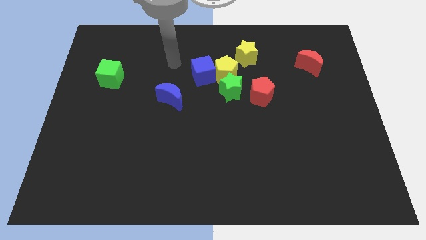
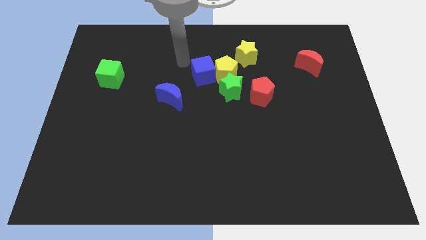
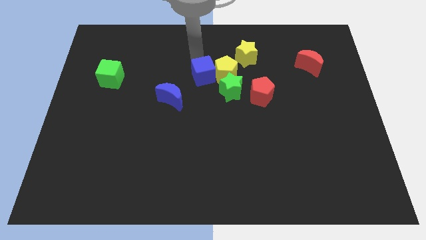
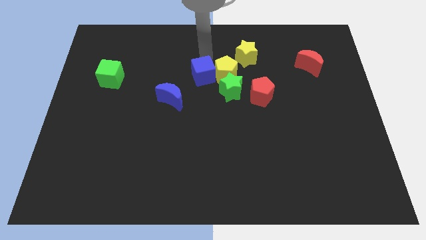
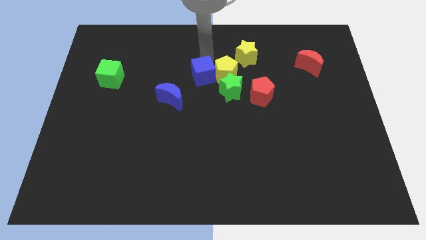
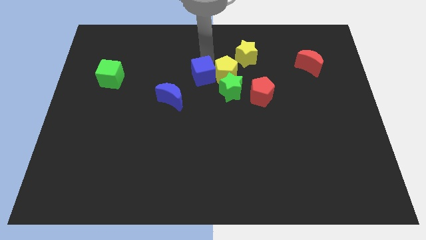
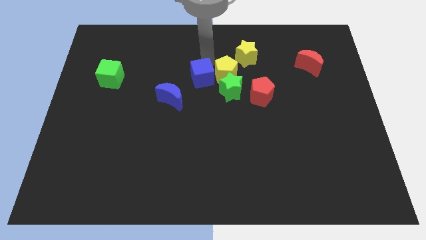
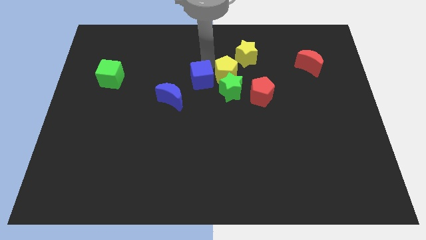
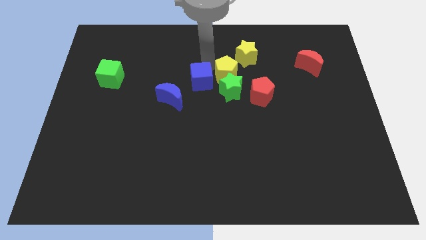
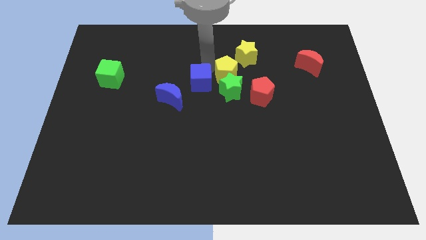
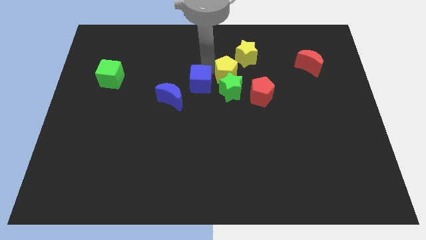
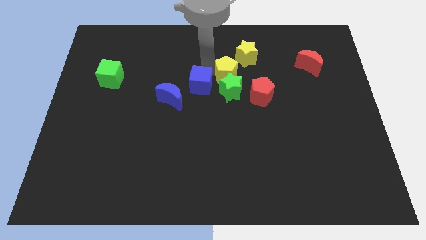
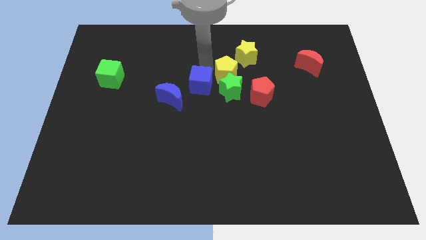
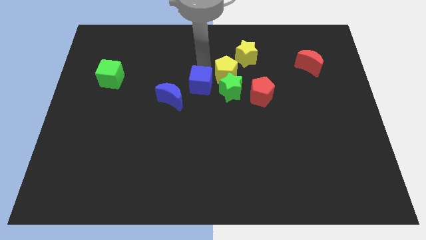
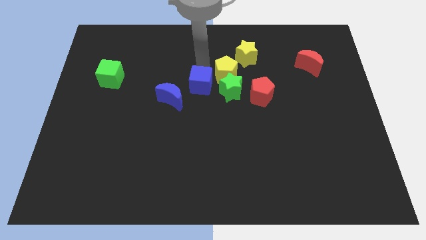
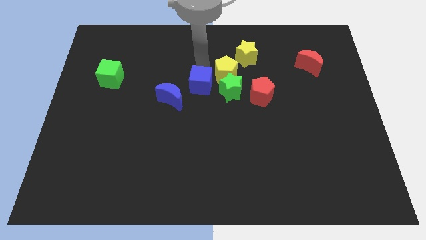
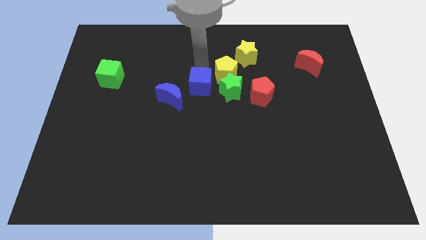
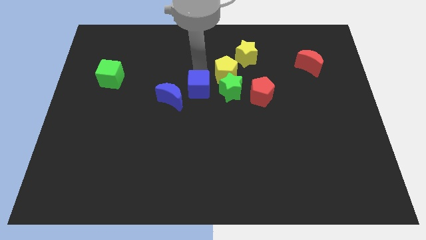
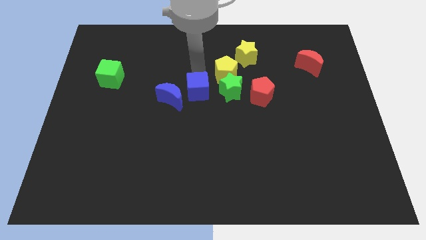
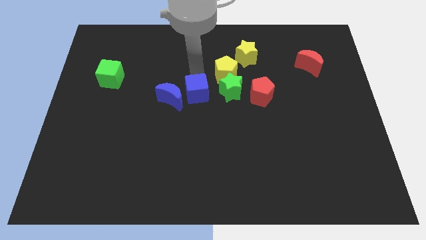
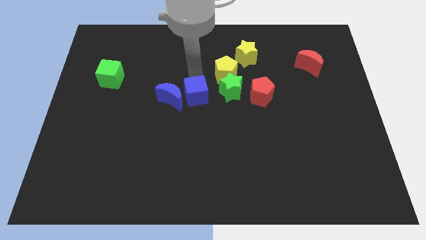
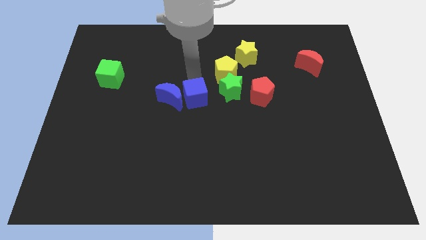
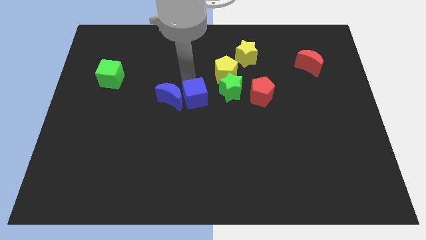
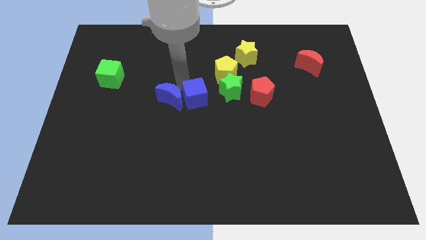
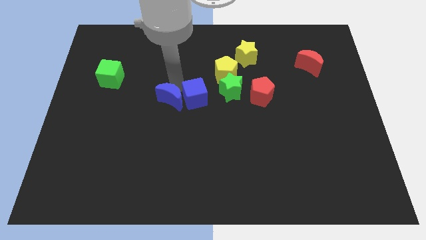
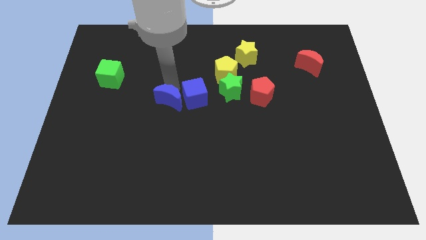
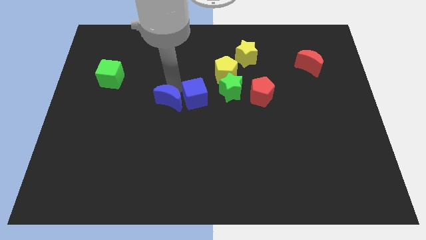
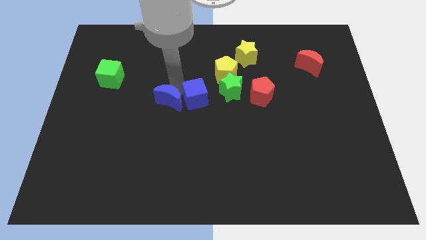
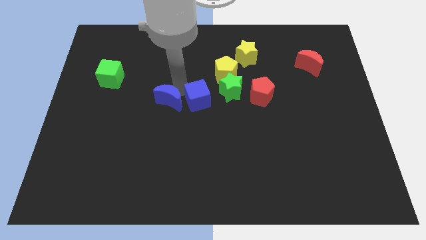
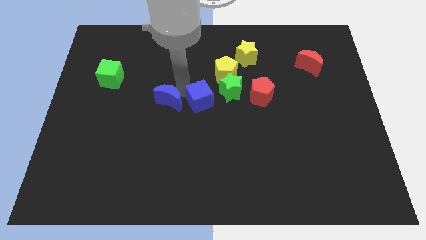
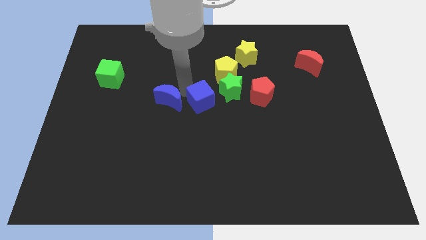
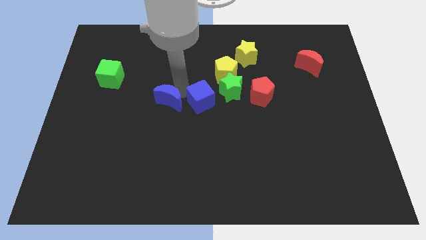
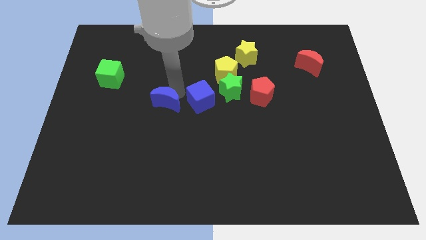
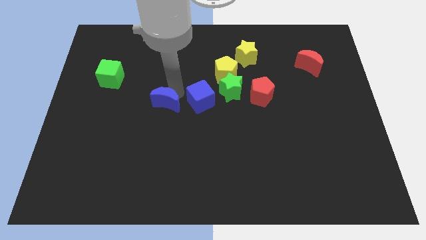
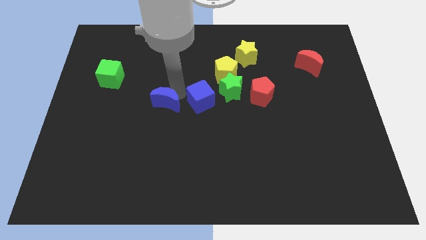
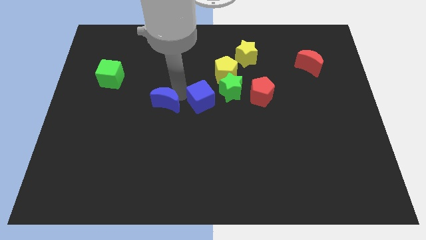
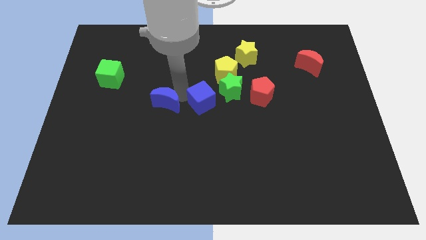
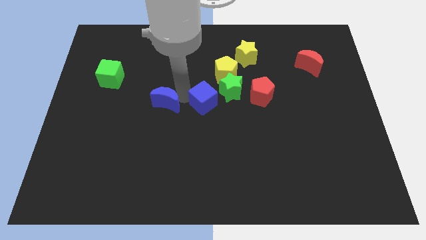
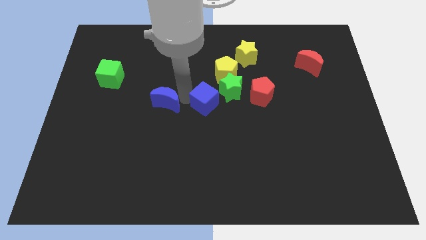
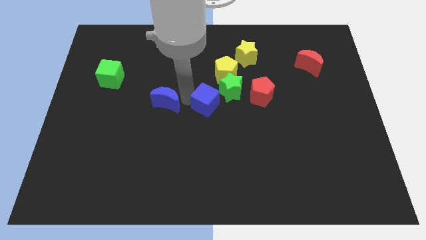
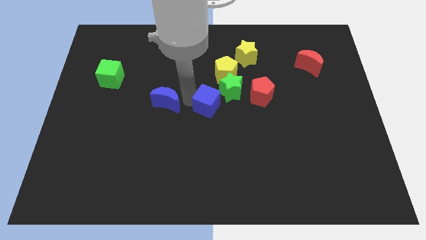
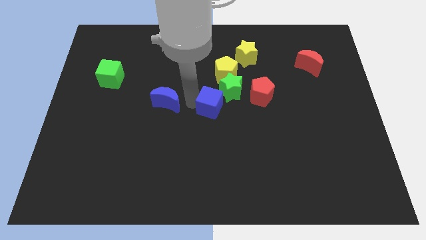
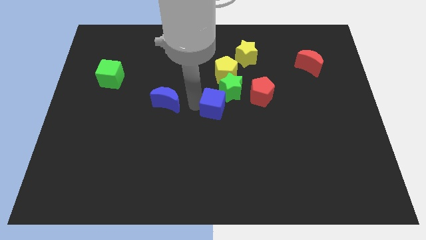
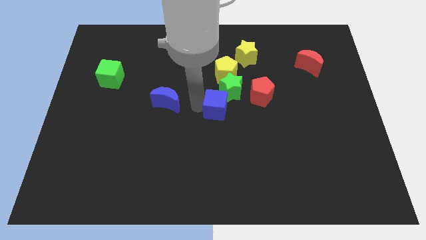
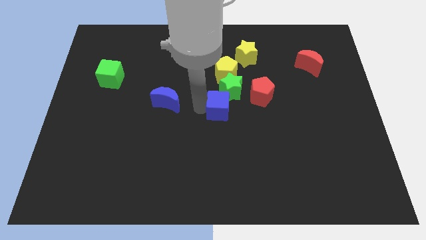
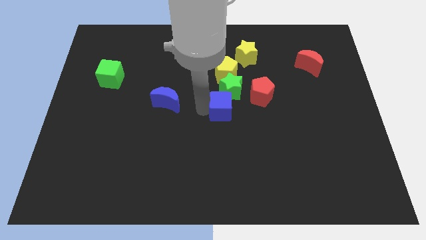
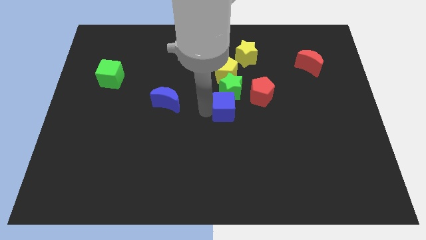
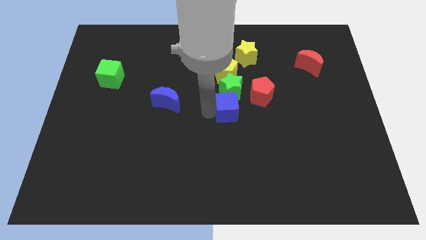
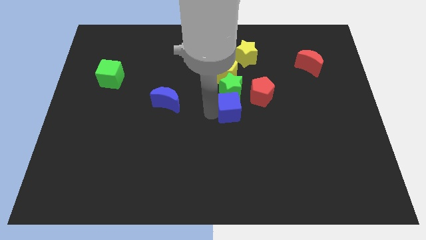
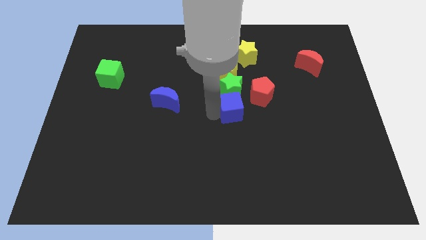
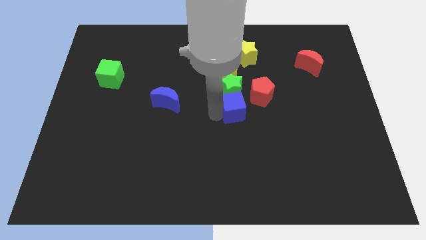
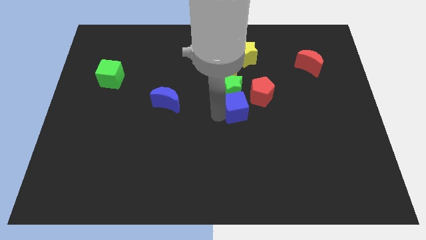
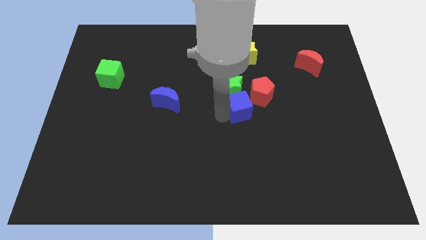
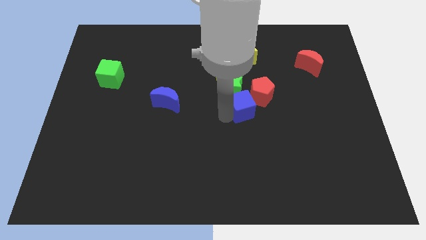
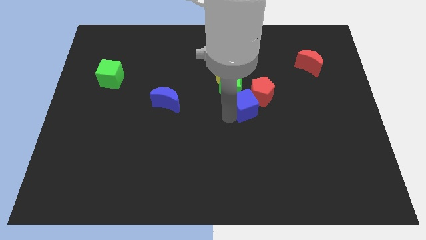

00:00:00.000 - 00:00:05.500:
push the blue cube towards the red pentagon
